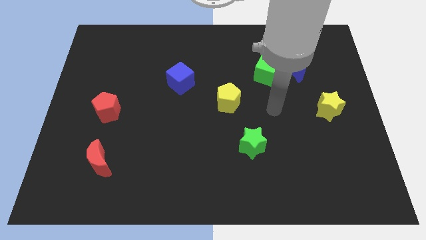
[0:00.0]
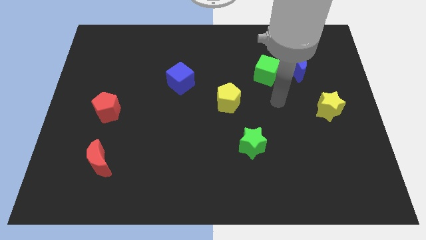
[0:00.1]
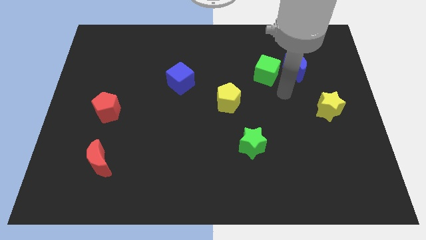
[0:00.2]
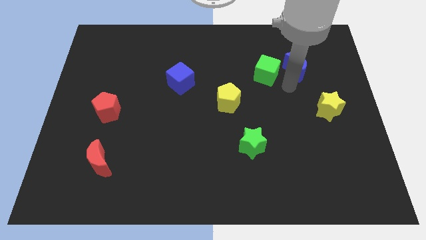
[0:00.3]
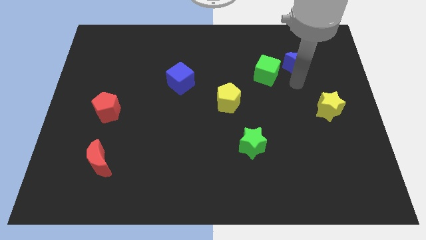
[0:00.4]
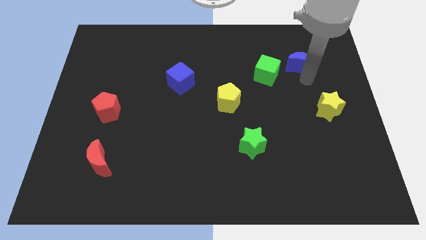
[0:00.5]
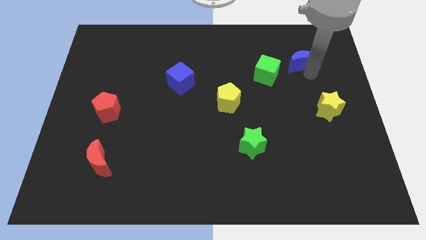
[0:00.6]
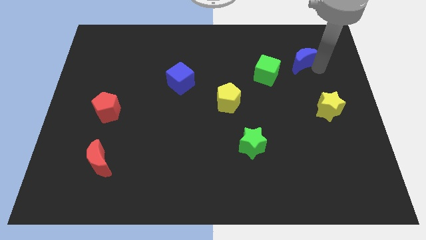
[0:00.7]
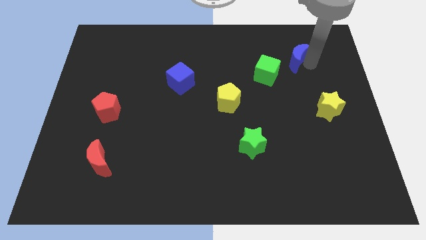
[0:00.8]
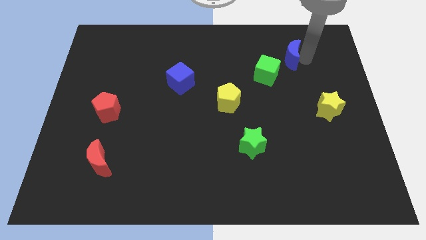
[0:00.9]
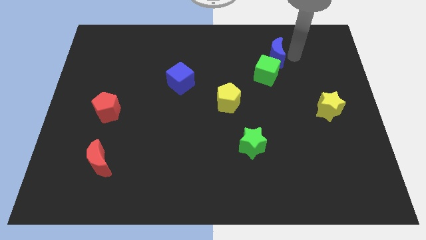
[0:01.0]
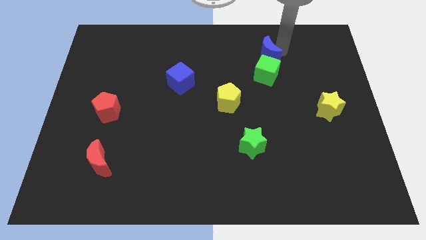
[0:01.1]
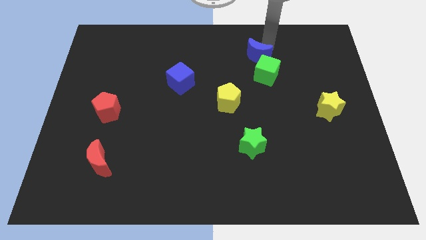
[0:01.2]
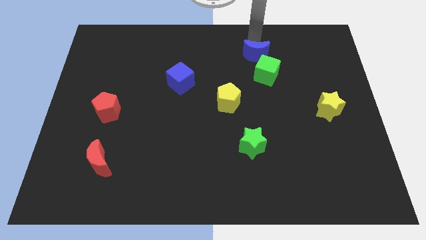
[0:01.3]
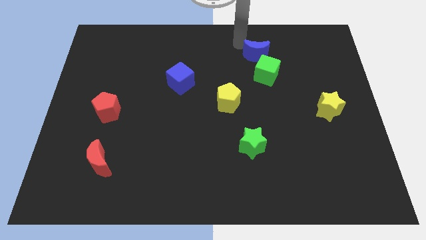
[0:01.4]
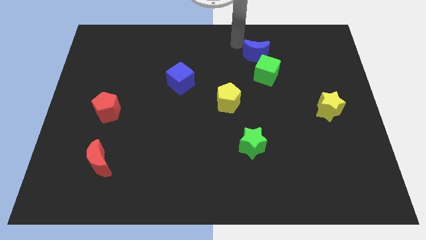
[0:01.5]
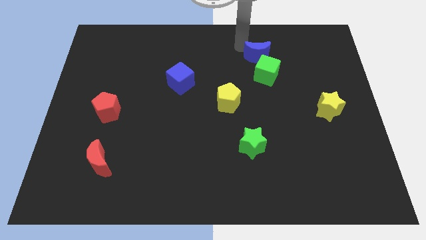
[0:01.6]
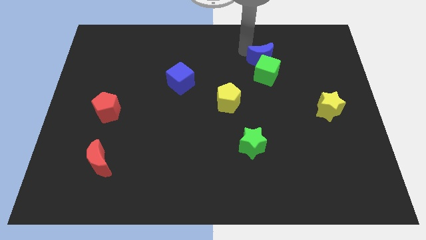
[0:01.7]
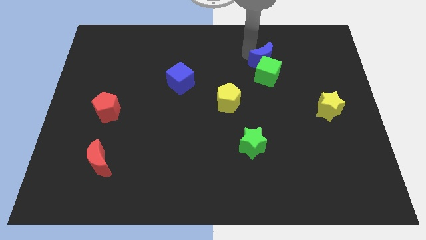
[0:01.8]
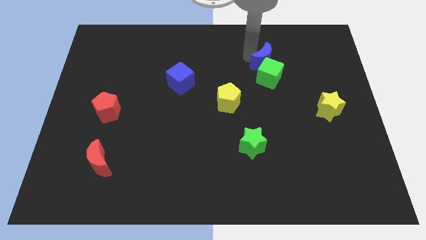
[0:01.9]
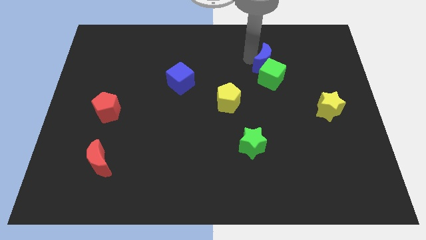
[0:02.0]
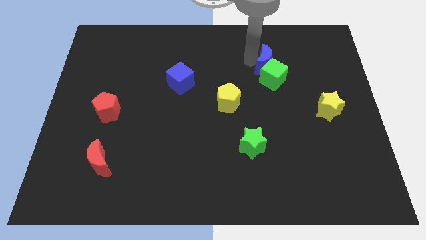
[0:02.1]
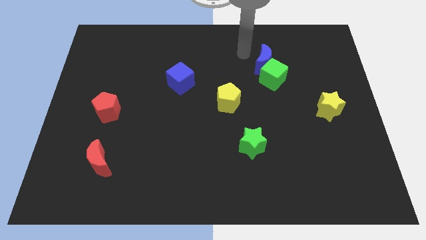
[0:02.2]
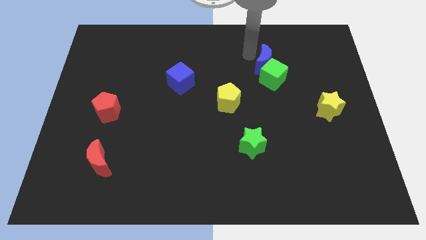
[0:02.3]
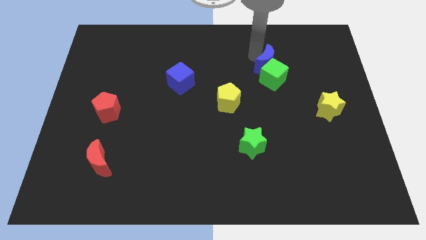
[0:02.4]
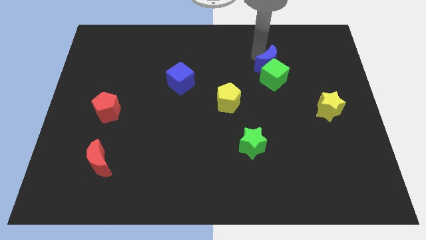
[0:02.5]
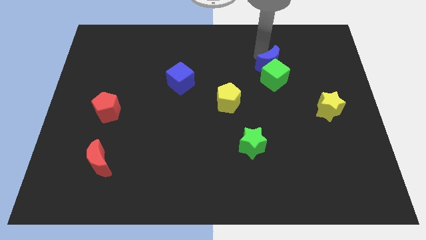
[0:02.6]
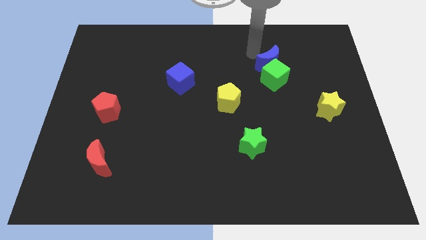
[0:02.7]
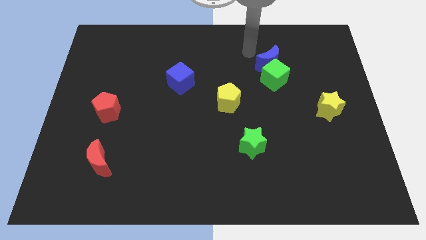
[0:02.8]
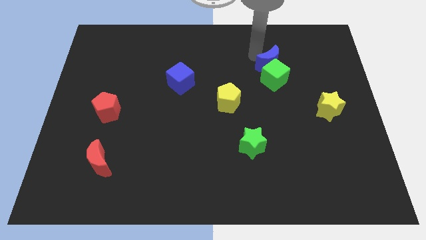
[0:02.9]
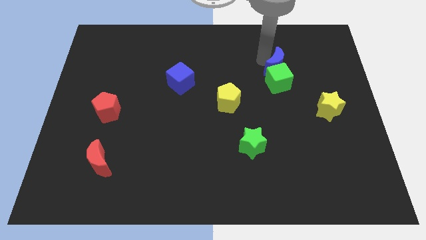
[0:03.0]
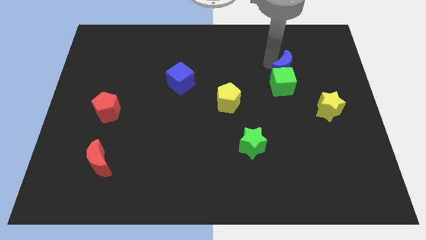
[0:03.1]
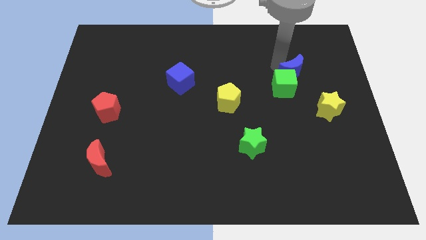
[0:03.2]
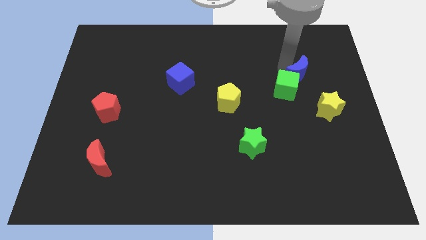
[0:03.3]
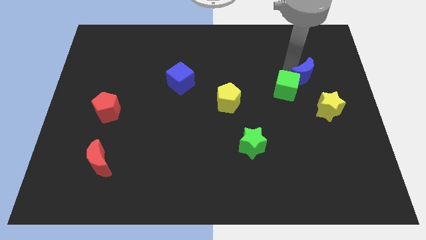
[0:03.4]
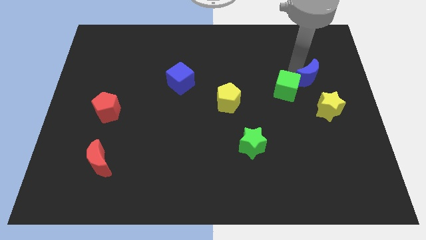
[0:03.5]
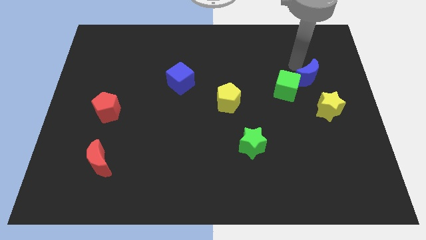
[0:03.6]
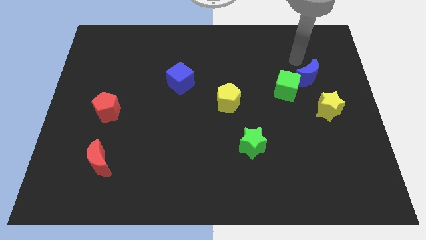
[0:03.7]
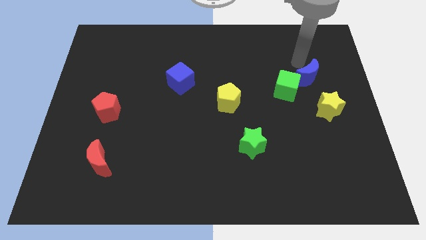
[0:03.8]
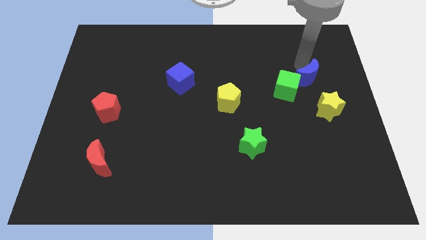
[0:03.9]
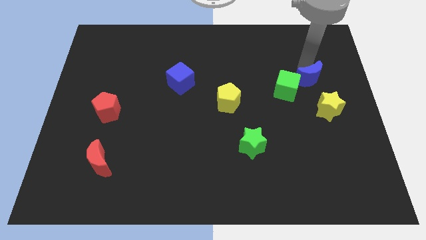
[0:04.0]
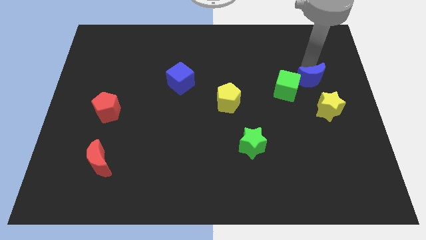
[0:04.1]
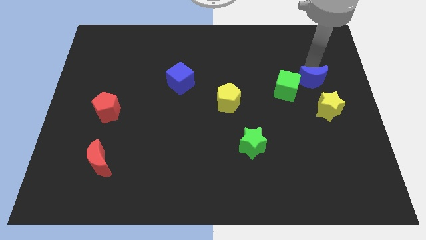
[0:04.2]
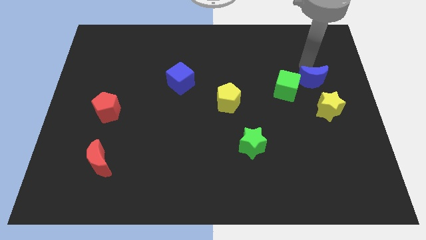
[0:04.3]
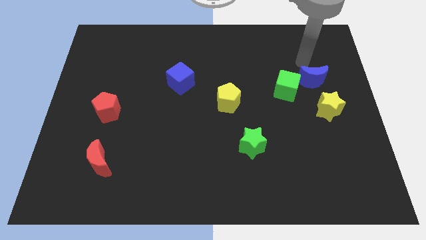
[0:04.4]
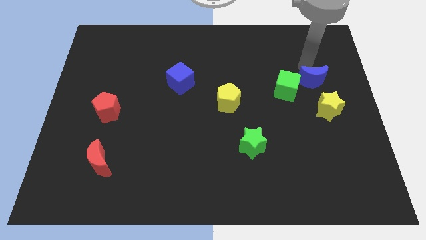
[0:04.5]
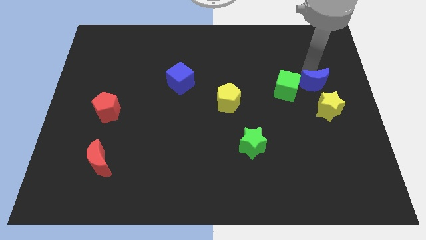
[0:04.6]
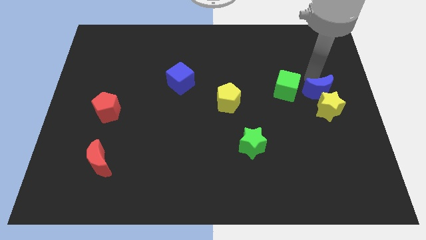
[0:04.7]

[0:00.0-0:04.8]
push the blue moon towards the yellow star

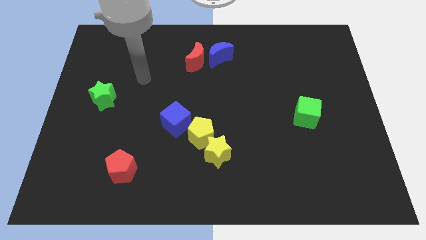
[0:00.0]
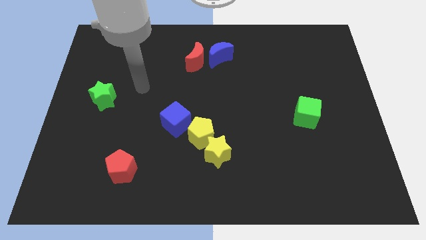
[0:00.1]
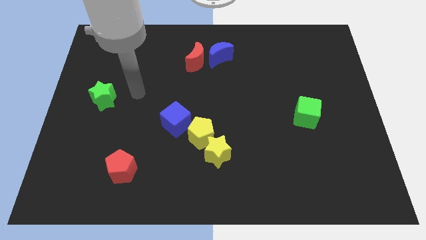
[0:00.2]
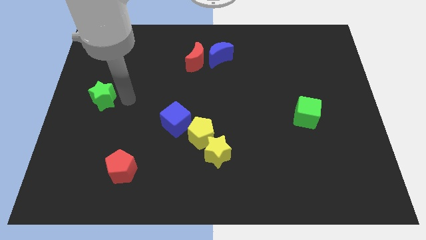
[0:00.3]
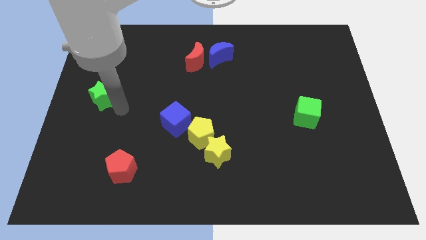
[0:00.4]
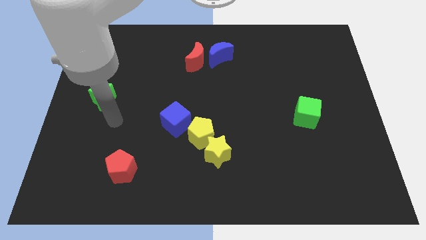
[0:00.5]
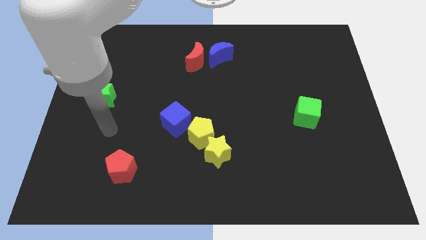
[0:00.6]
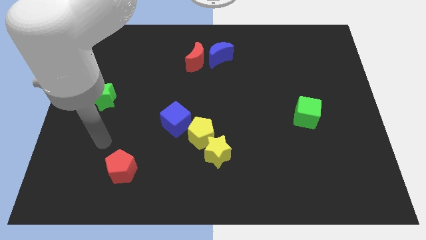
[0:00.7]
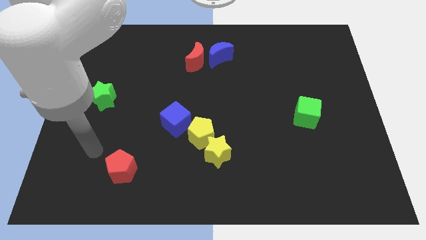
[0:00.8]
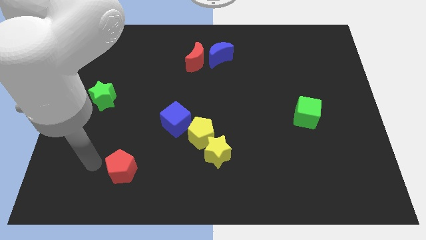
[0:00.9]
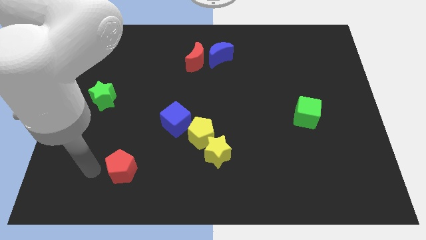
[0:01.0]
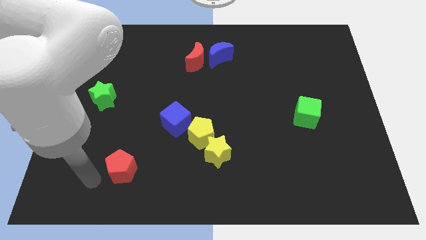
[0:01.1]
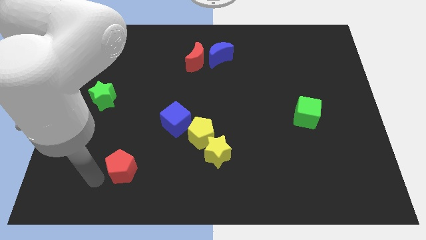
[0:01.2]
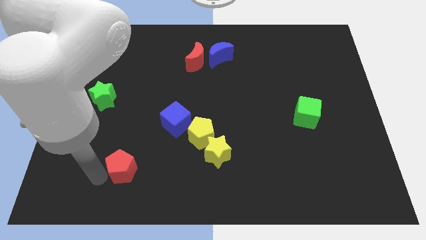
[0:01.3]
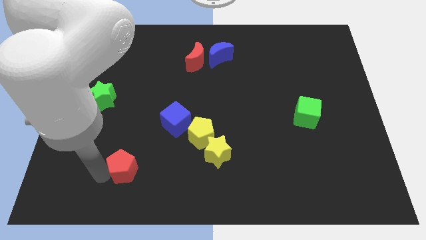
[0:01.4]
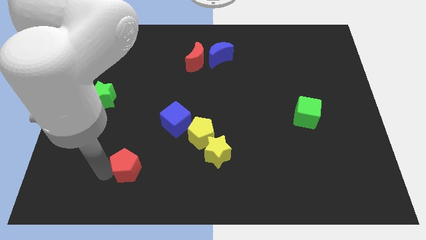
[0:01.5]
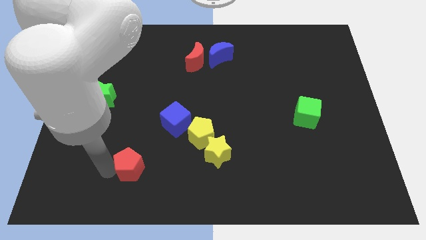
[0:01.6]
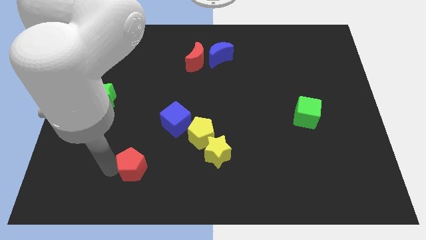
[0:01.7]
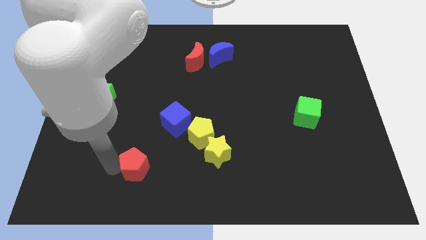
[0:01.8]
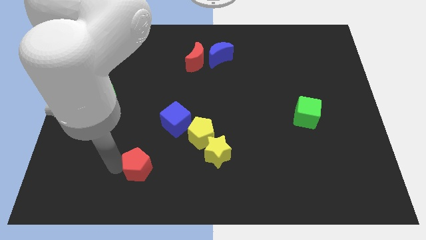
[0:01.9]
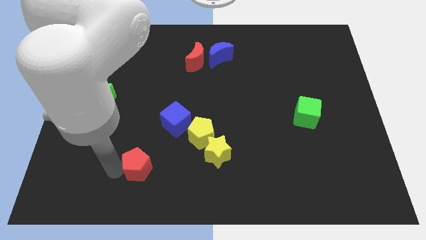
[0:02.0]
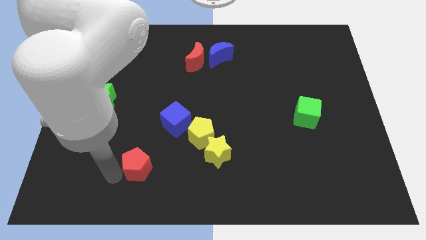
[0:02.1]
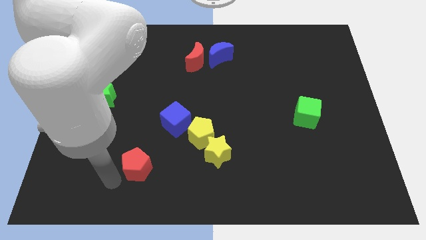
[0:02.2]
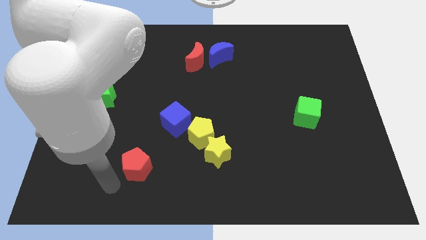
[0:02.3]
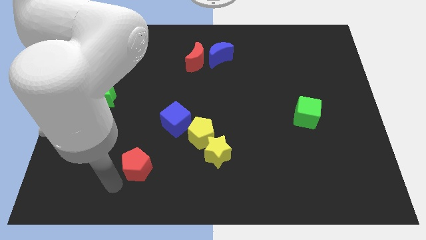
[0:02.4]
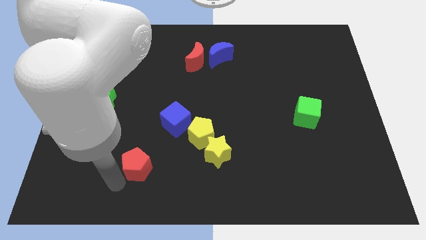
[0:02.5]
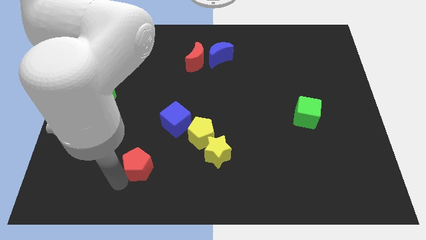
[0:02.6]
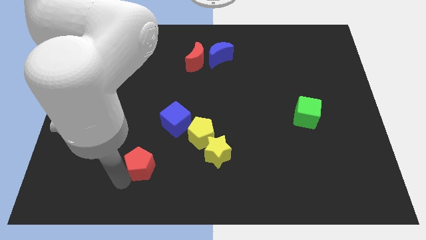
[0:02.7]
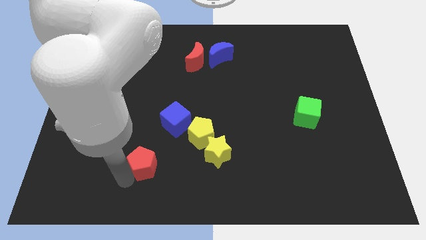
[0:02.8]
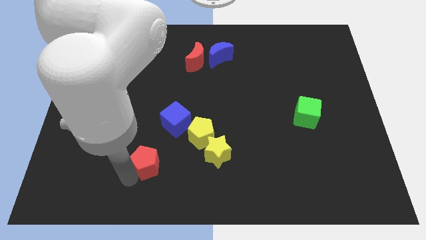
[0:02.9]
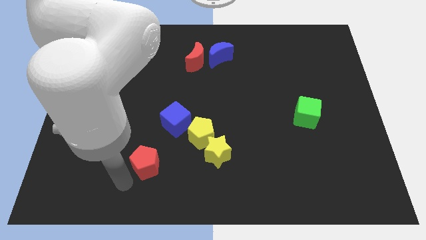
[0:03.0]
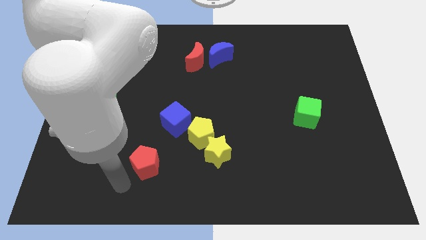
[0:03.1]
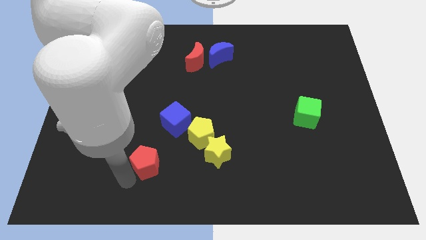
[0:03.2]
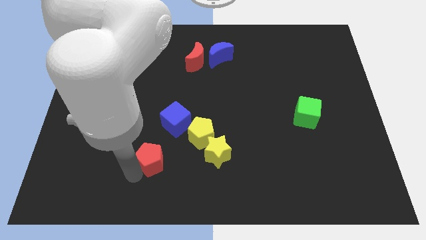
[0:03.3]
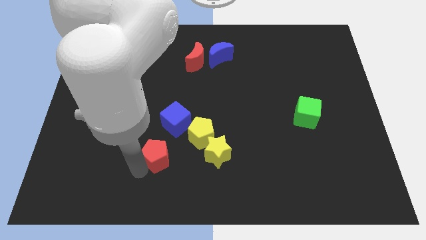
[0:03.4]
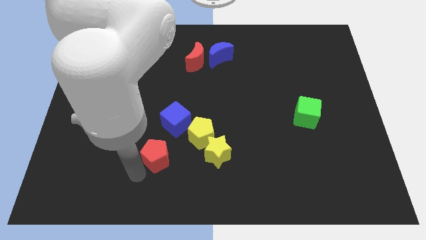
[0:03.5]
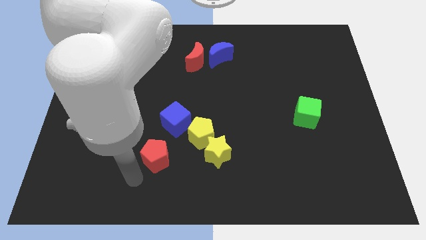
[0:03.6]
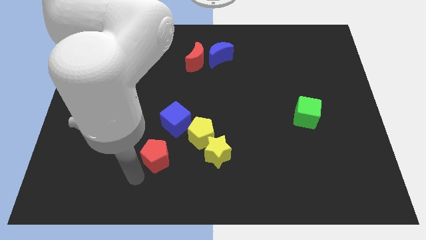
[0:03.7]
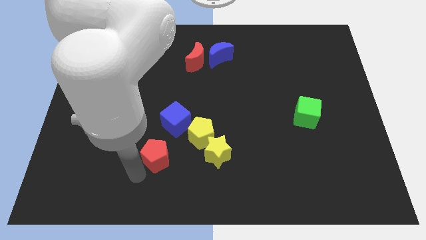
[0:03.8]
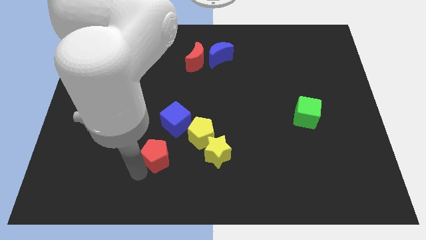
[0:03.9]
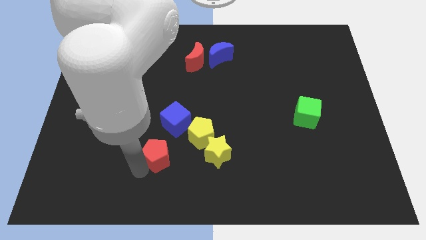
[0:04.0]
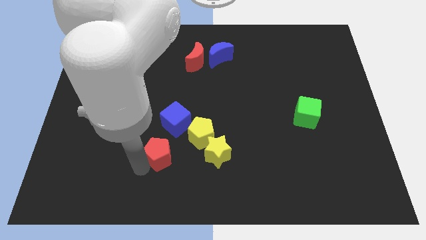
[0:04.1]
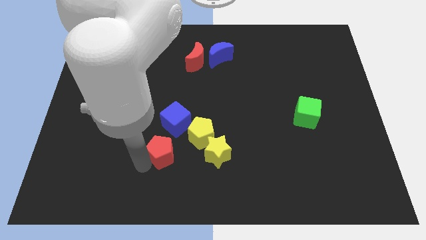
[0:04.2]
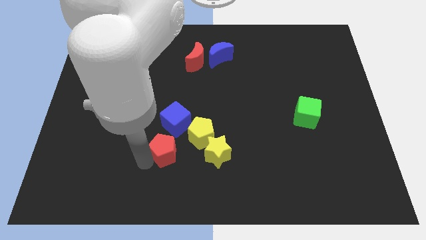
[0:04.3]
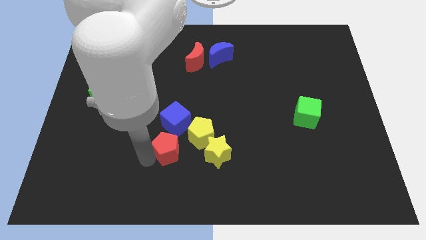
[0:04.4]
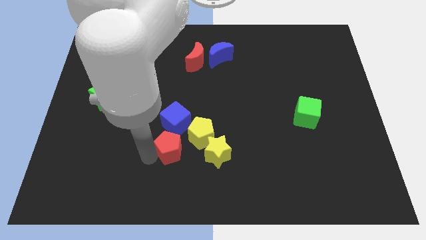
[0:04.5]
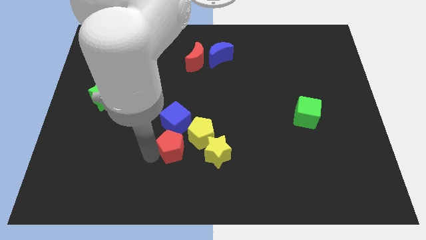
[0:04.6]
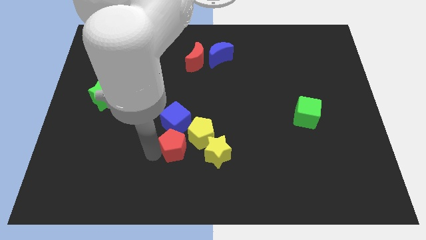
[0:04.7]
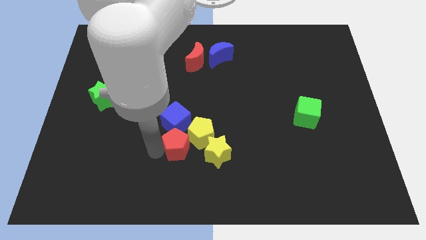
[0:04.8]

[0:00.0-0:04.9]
move the red pentagon next to the yellow pentagon
